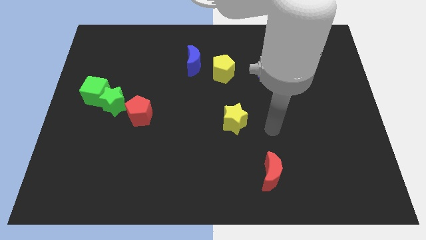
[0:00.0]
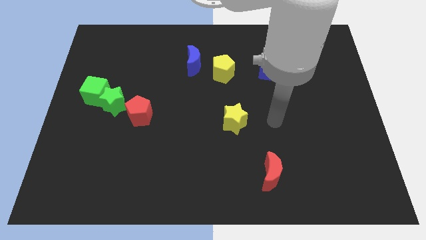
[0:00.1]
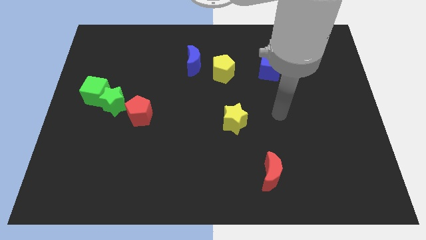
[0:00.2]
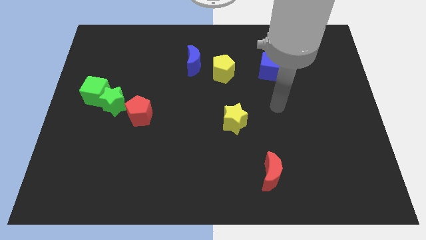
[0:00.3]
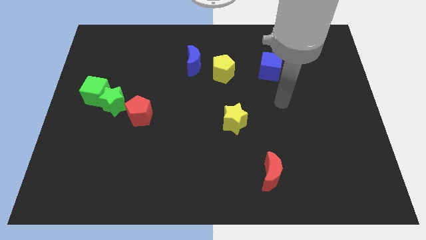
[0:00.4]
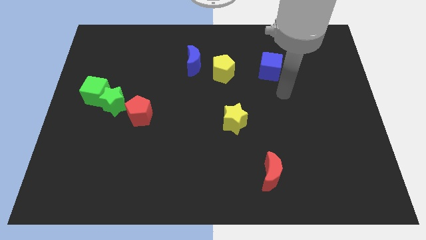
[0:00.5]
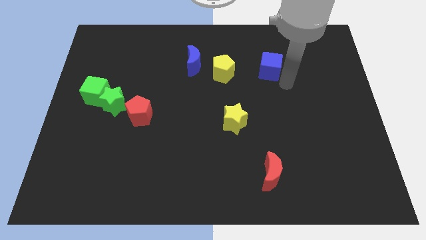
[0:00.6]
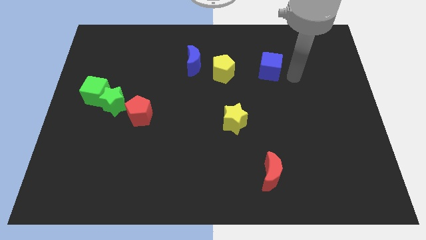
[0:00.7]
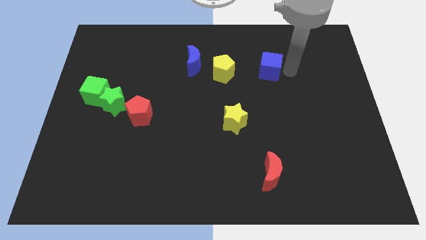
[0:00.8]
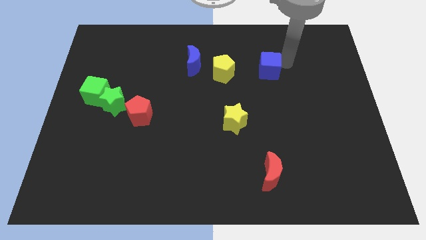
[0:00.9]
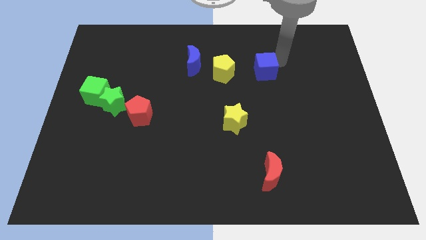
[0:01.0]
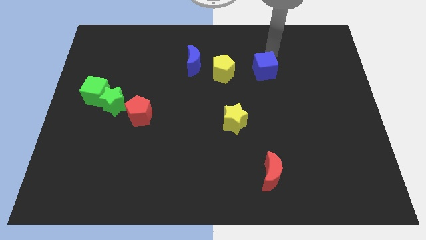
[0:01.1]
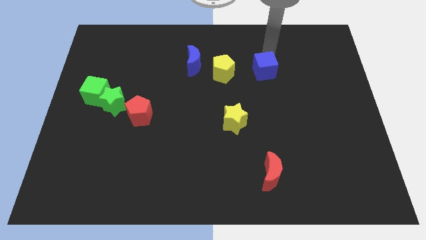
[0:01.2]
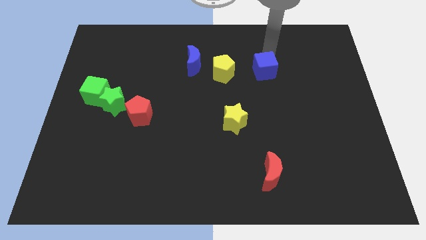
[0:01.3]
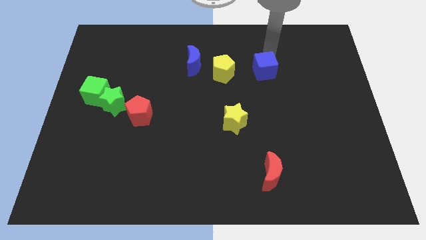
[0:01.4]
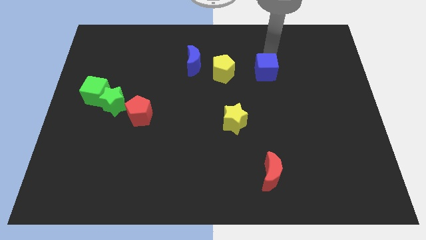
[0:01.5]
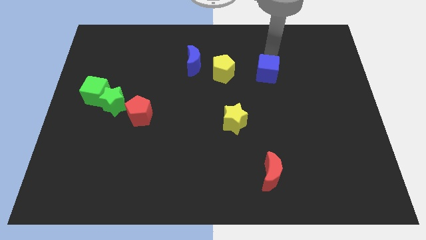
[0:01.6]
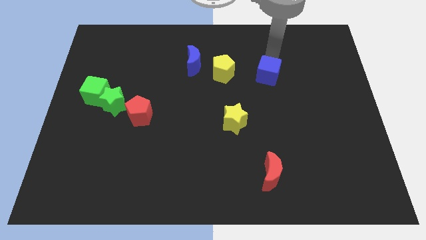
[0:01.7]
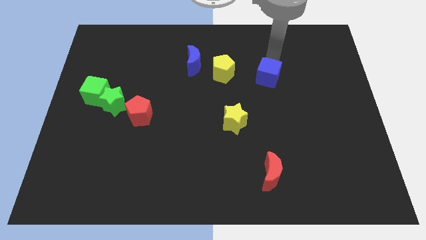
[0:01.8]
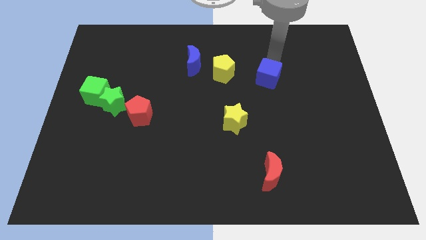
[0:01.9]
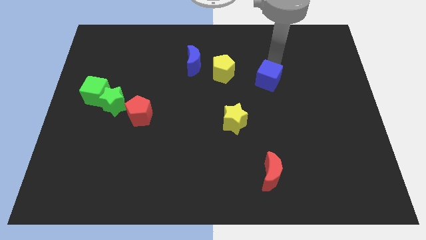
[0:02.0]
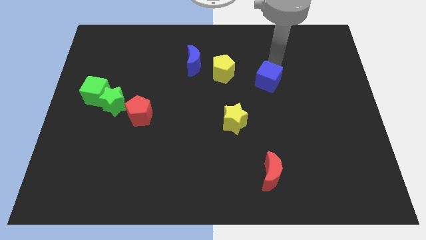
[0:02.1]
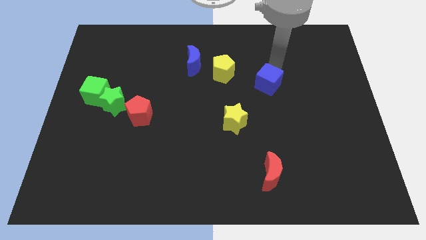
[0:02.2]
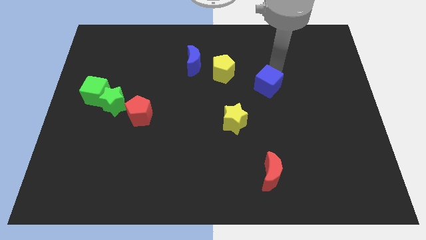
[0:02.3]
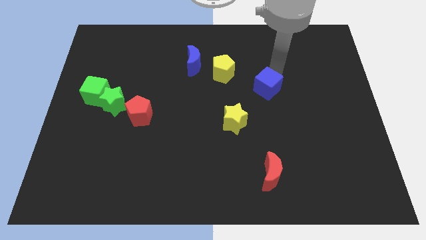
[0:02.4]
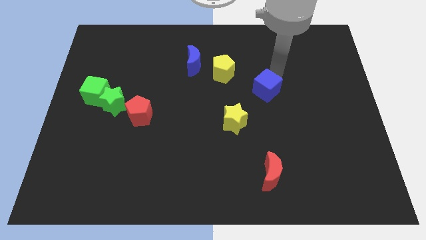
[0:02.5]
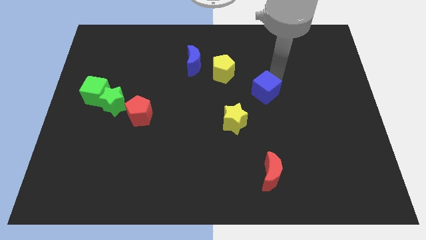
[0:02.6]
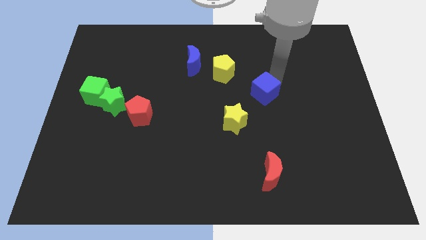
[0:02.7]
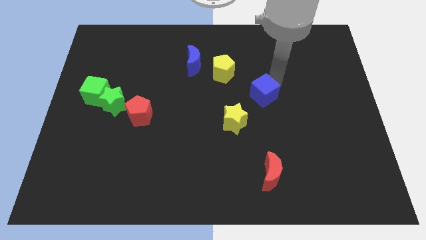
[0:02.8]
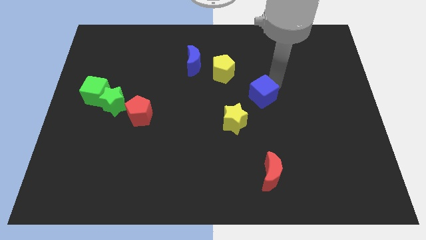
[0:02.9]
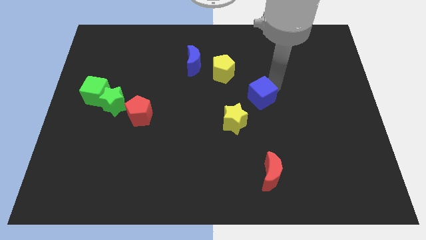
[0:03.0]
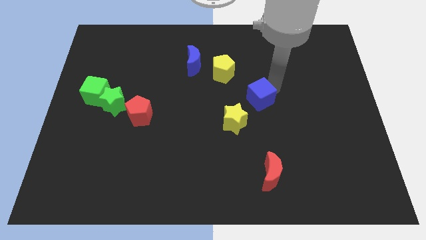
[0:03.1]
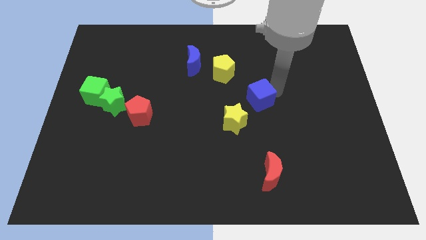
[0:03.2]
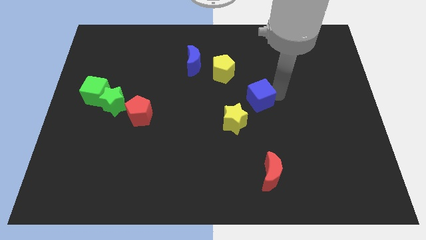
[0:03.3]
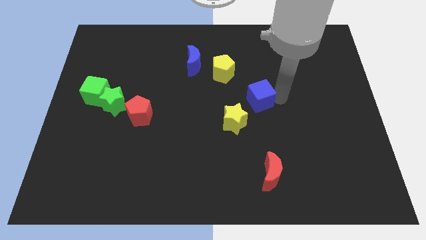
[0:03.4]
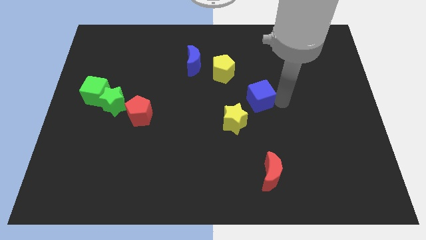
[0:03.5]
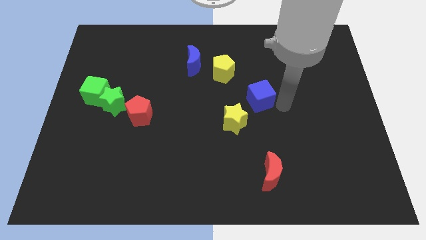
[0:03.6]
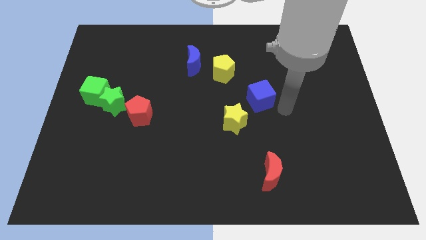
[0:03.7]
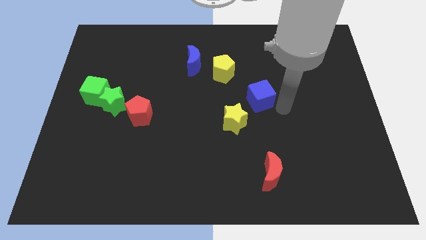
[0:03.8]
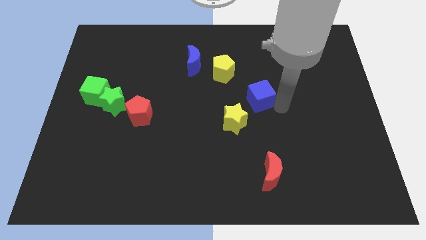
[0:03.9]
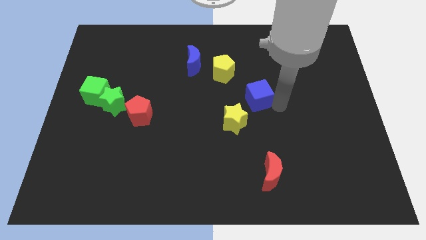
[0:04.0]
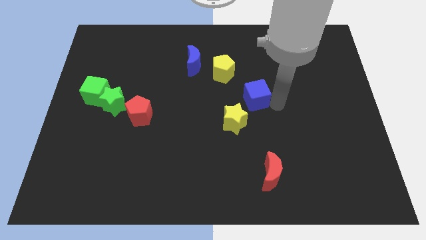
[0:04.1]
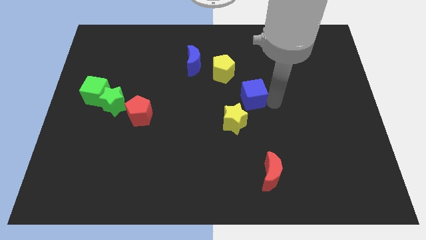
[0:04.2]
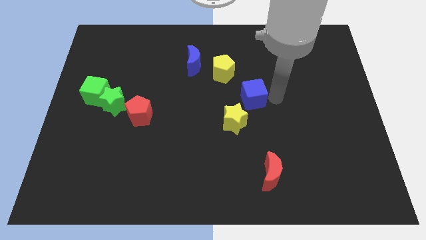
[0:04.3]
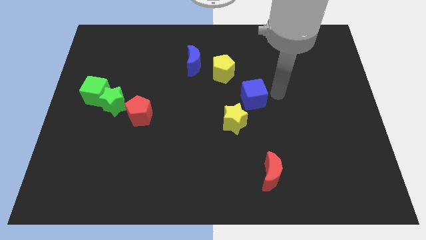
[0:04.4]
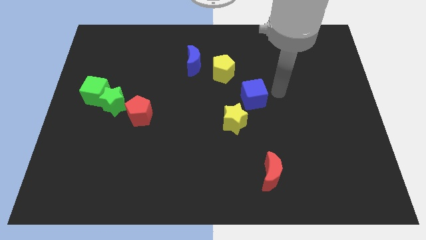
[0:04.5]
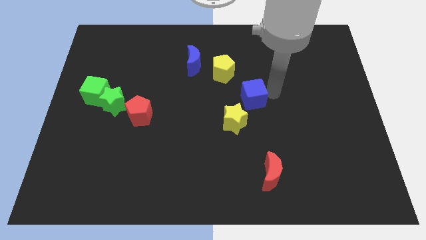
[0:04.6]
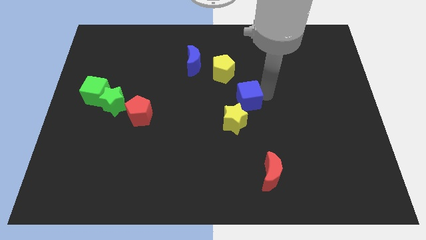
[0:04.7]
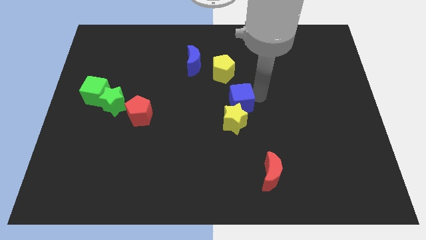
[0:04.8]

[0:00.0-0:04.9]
move the blue cube to the bottom of the yellow pentagon

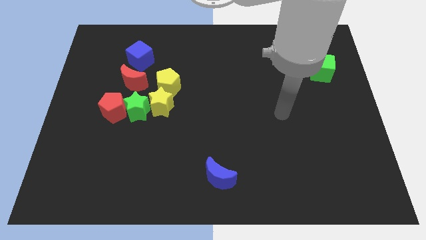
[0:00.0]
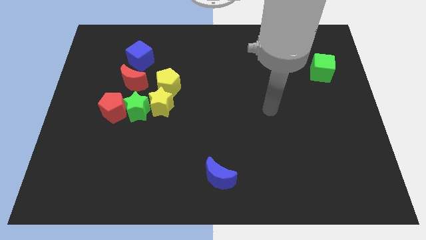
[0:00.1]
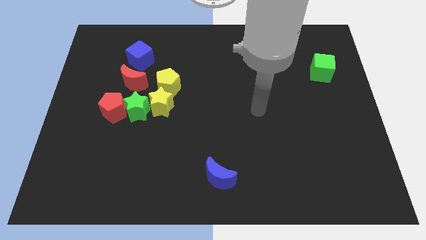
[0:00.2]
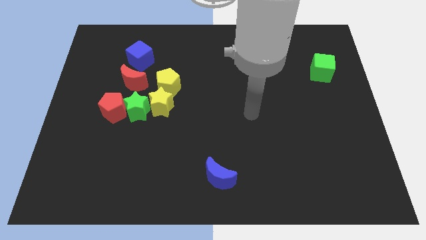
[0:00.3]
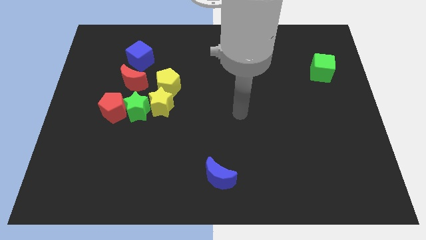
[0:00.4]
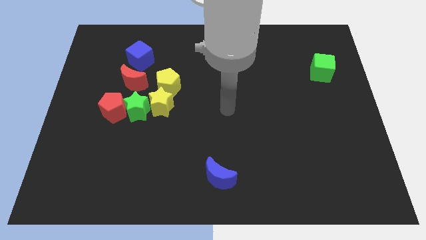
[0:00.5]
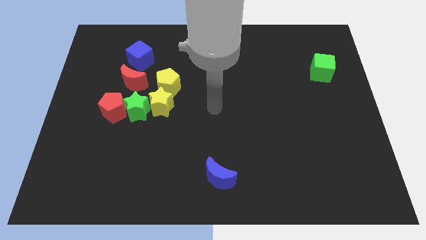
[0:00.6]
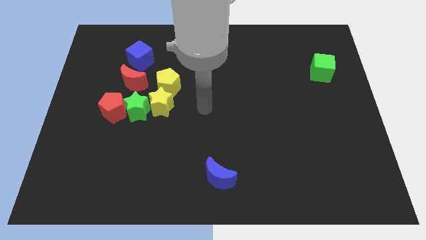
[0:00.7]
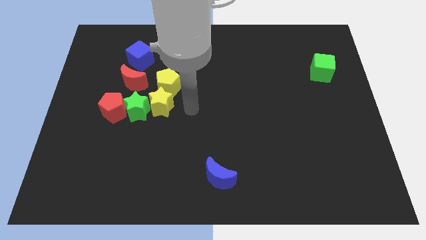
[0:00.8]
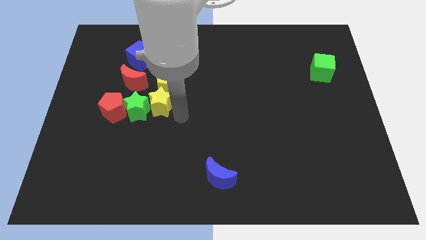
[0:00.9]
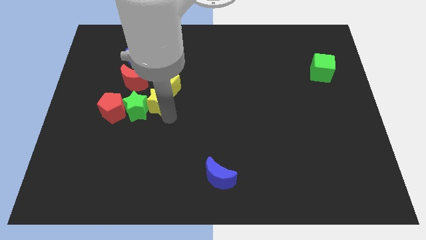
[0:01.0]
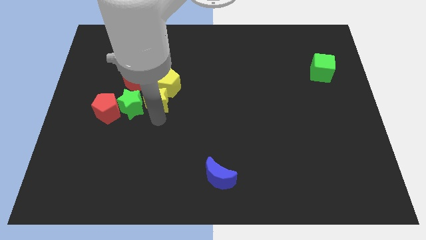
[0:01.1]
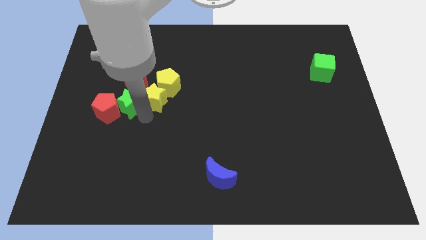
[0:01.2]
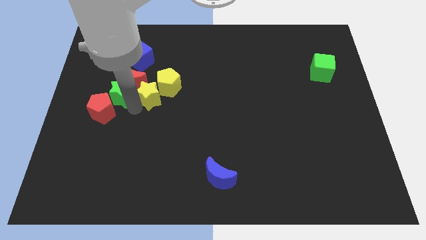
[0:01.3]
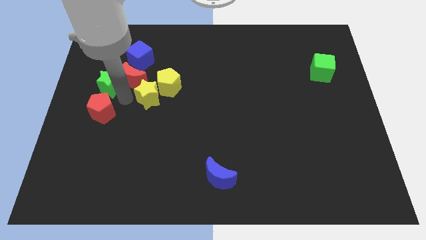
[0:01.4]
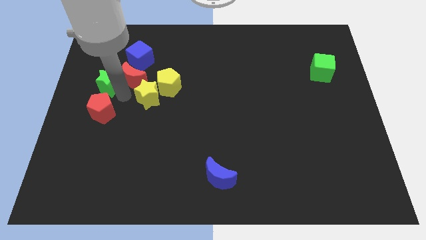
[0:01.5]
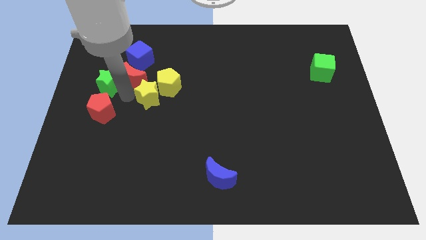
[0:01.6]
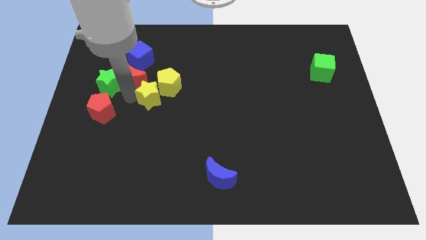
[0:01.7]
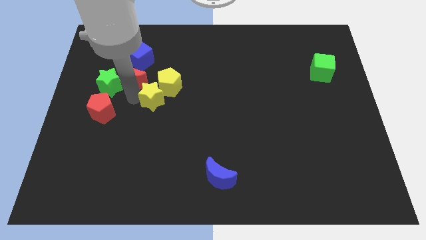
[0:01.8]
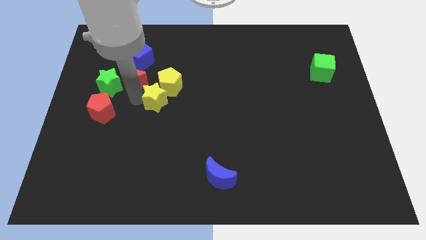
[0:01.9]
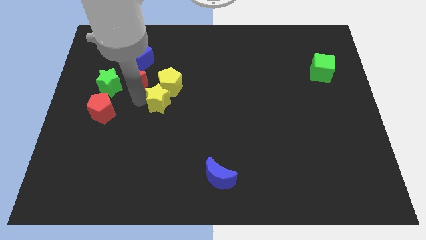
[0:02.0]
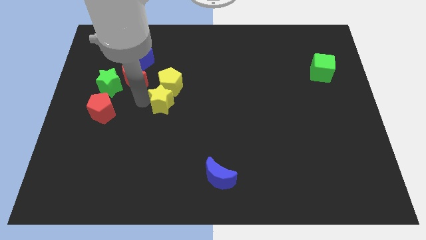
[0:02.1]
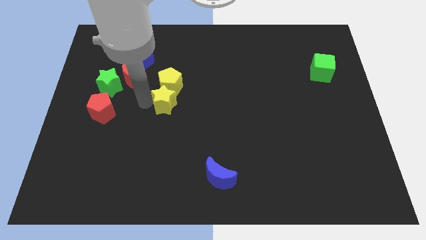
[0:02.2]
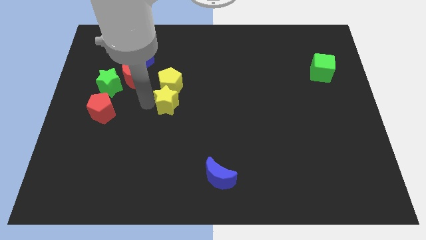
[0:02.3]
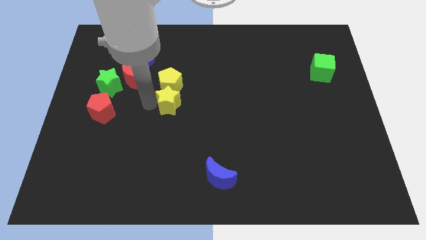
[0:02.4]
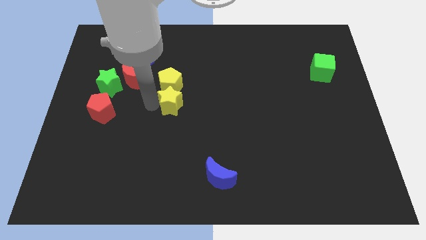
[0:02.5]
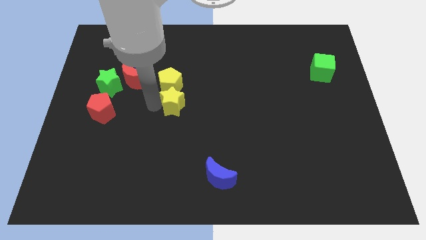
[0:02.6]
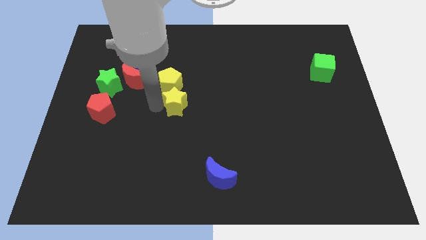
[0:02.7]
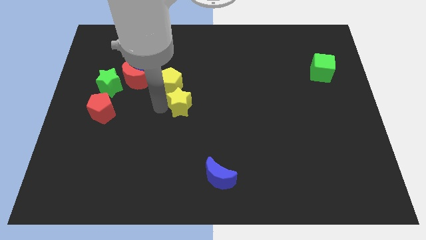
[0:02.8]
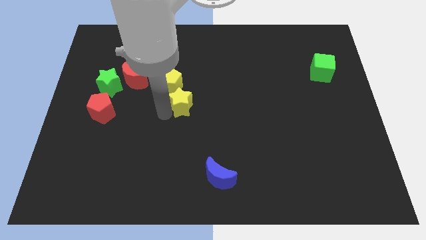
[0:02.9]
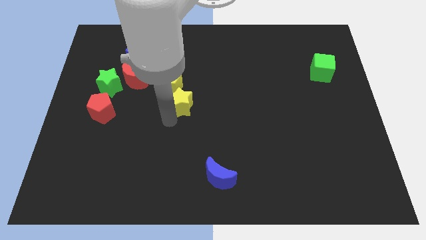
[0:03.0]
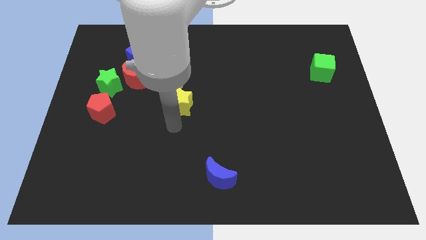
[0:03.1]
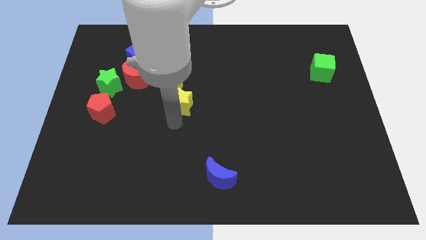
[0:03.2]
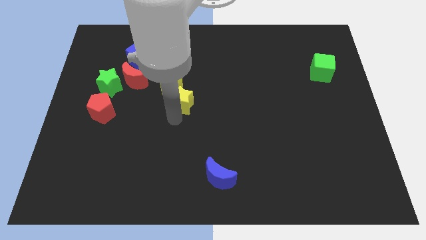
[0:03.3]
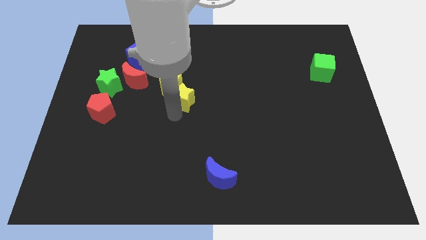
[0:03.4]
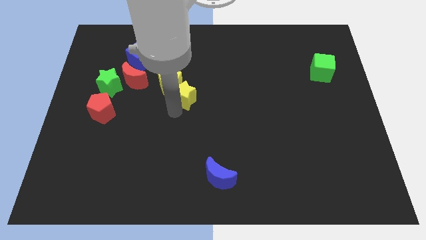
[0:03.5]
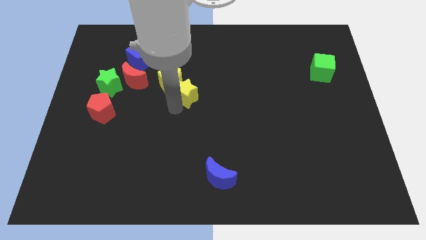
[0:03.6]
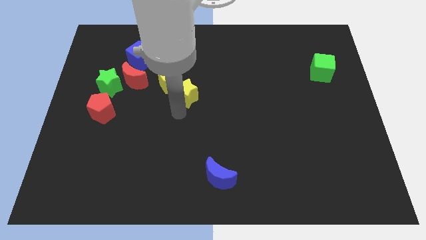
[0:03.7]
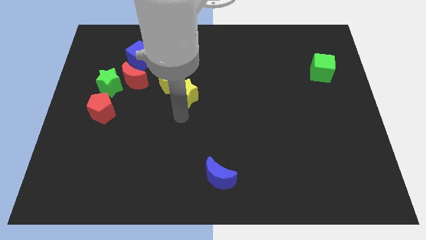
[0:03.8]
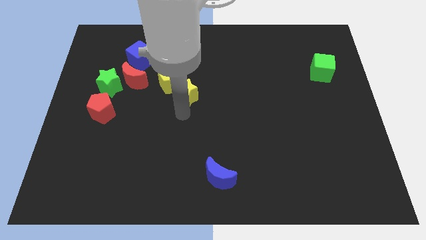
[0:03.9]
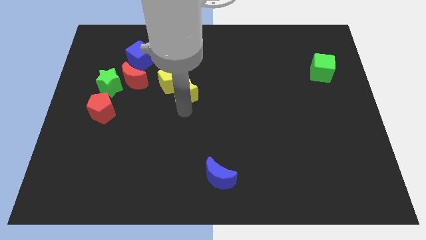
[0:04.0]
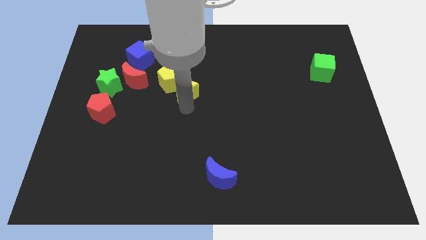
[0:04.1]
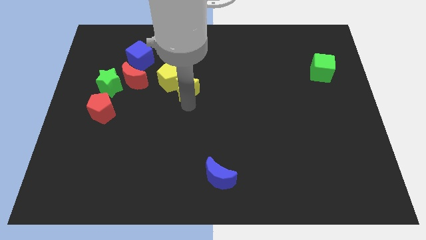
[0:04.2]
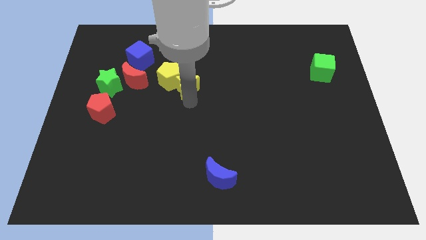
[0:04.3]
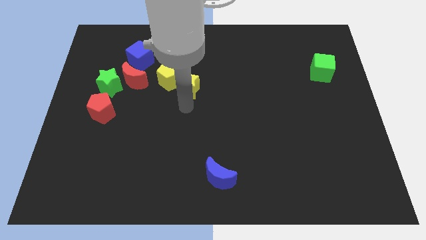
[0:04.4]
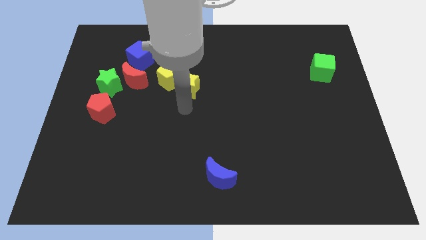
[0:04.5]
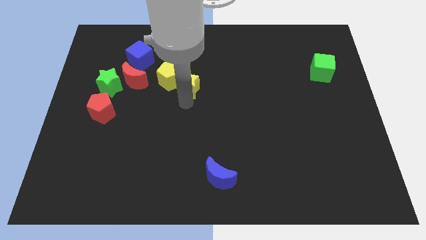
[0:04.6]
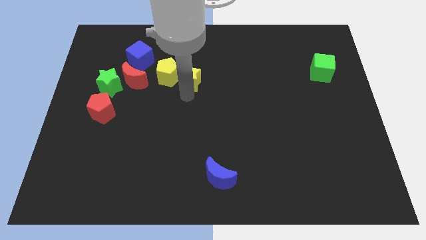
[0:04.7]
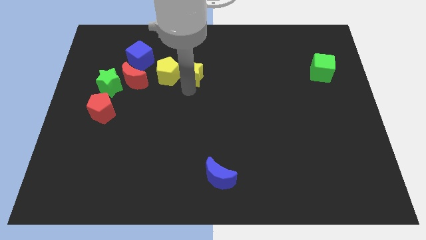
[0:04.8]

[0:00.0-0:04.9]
slide the yellow star diagonally up and to the right of the yellow pentagon
